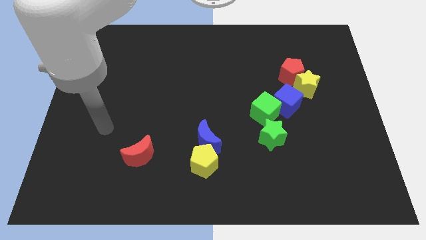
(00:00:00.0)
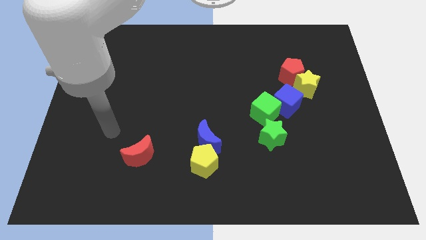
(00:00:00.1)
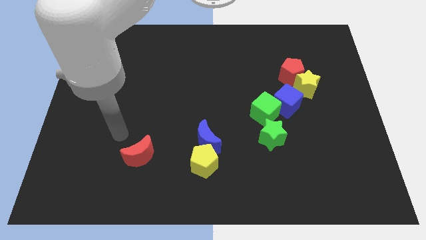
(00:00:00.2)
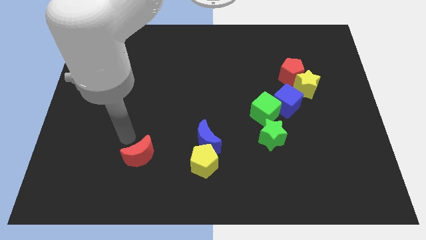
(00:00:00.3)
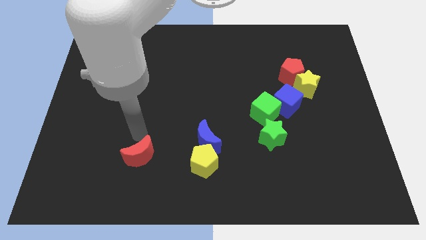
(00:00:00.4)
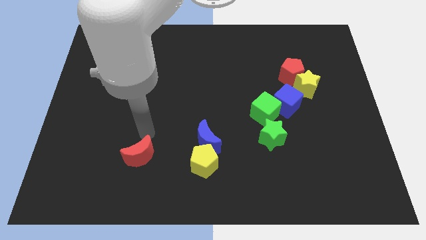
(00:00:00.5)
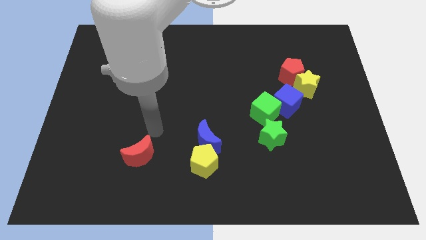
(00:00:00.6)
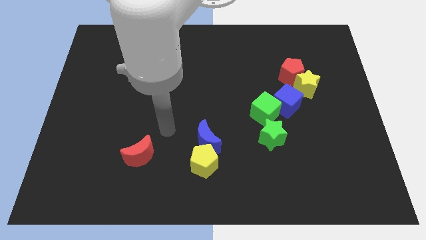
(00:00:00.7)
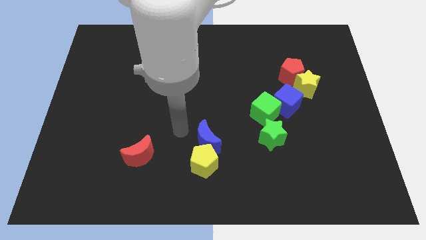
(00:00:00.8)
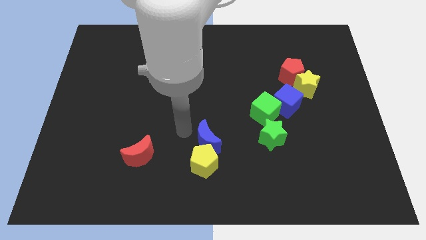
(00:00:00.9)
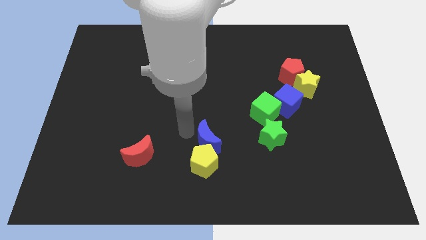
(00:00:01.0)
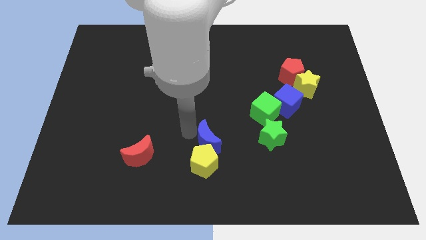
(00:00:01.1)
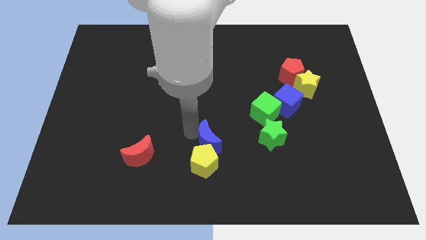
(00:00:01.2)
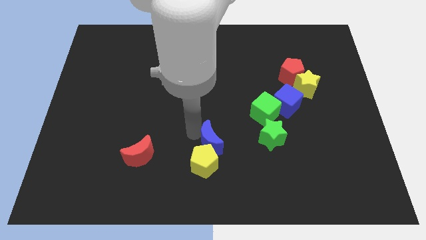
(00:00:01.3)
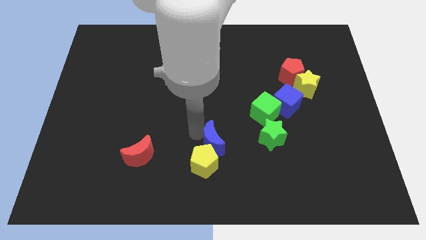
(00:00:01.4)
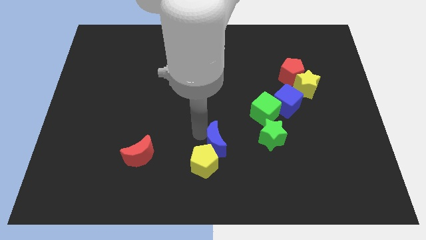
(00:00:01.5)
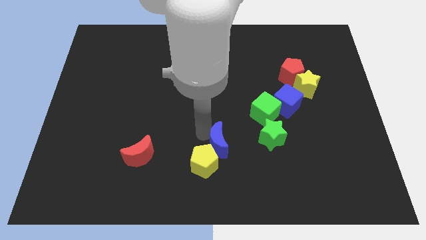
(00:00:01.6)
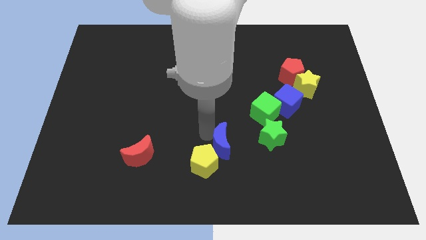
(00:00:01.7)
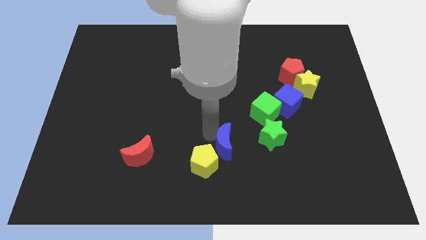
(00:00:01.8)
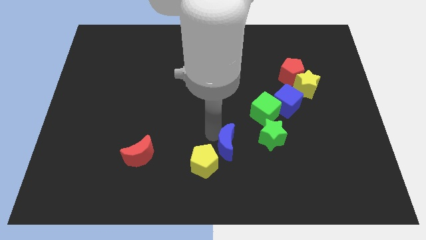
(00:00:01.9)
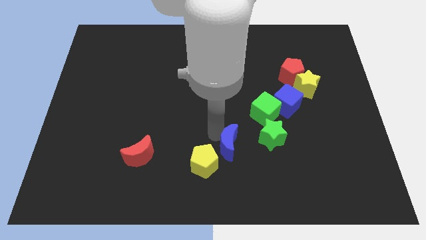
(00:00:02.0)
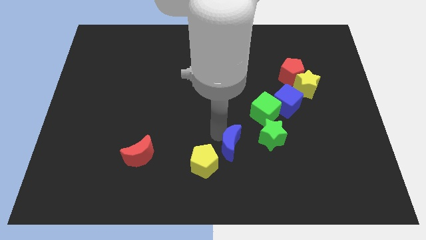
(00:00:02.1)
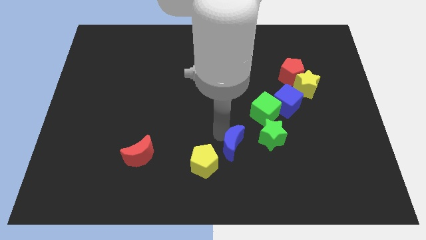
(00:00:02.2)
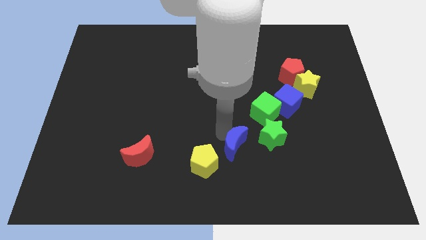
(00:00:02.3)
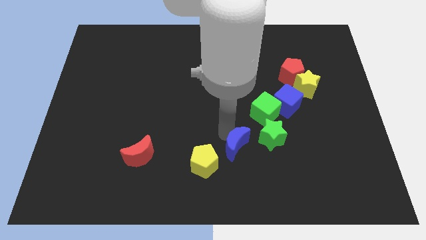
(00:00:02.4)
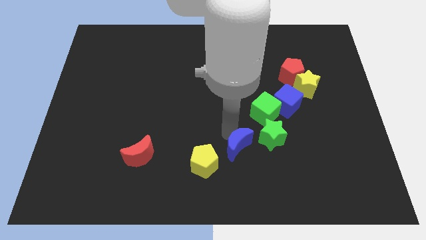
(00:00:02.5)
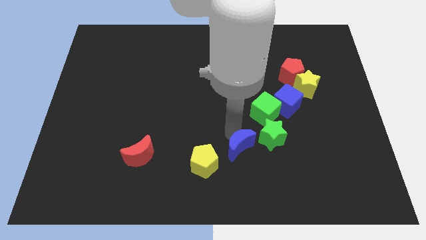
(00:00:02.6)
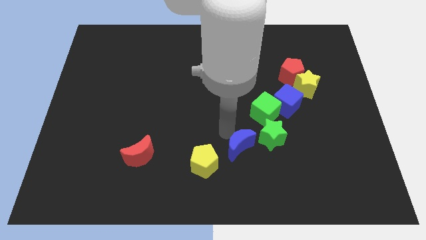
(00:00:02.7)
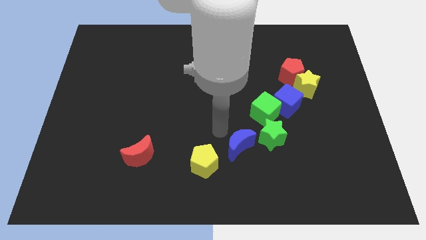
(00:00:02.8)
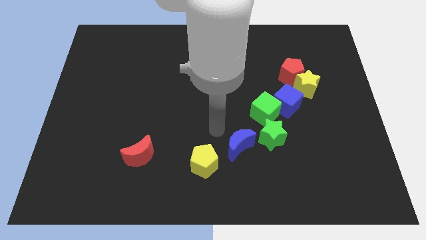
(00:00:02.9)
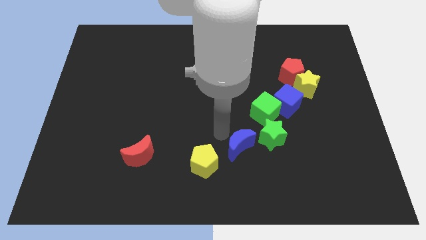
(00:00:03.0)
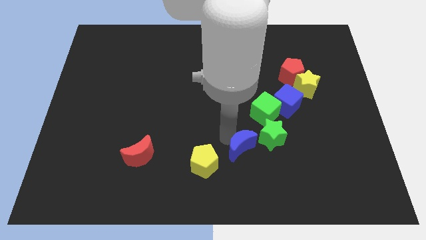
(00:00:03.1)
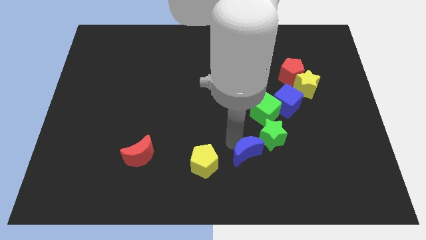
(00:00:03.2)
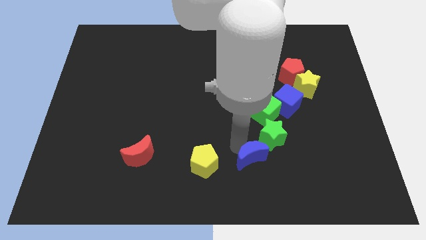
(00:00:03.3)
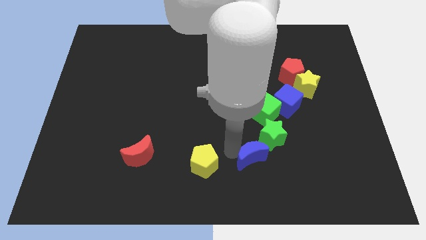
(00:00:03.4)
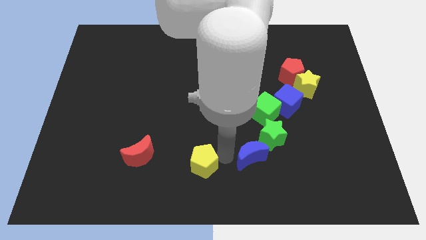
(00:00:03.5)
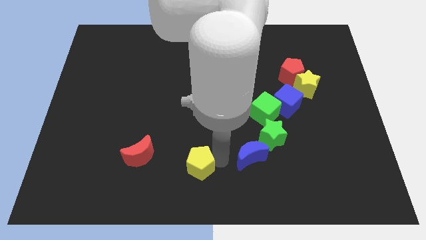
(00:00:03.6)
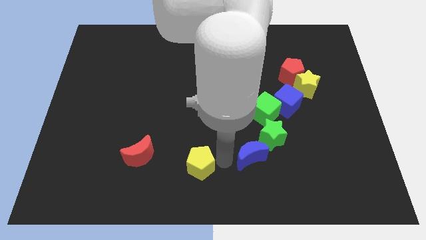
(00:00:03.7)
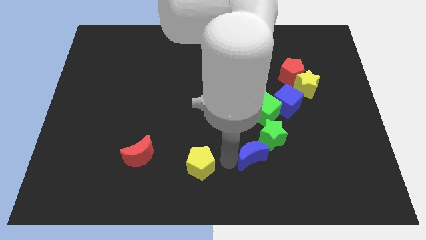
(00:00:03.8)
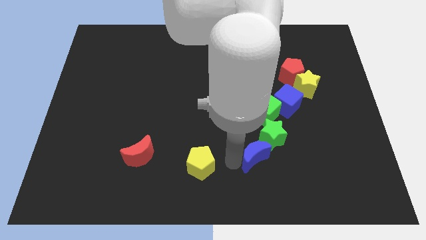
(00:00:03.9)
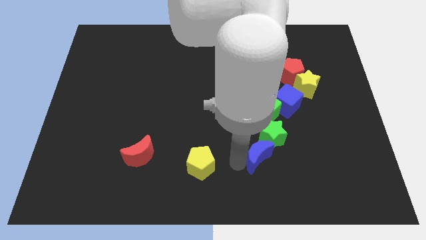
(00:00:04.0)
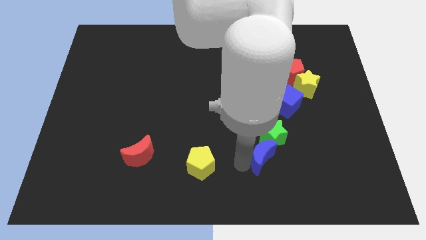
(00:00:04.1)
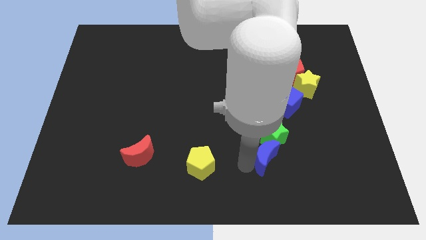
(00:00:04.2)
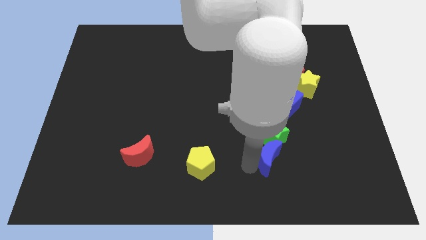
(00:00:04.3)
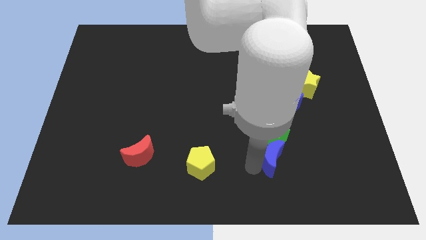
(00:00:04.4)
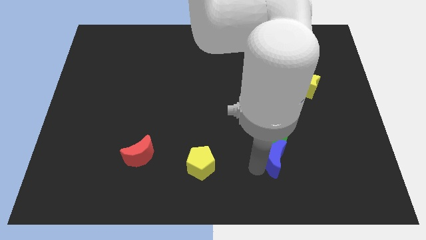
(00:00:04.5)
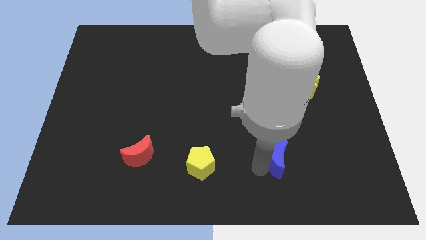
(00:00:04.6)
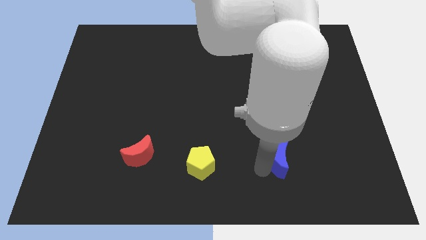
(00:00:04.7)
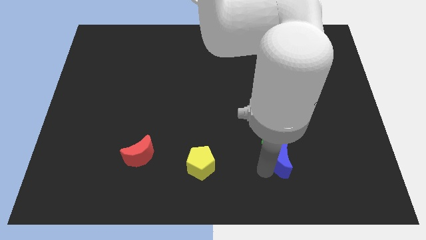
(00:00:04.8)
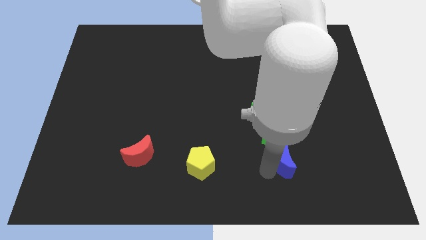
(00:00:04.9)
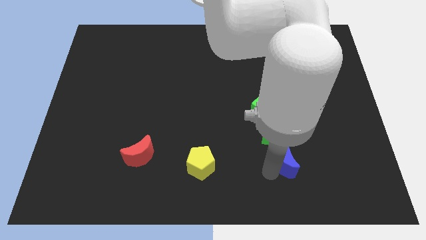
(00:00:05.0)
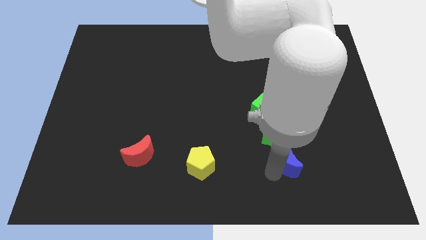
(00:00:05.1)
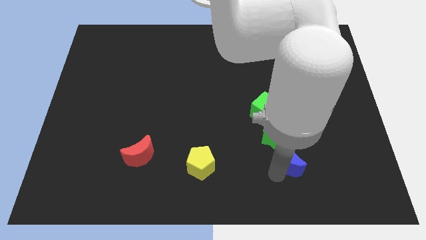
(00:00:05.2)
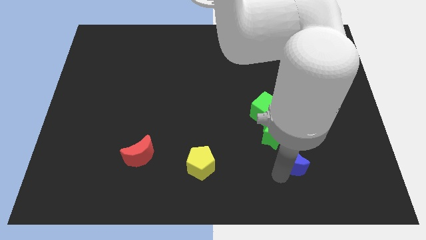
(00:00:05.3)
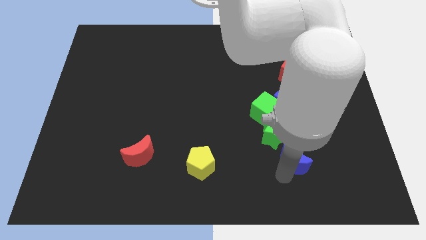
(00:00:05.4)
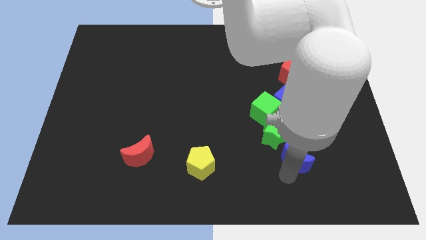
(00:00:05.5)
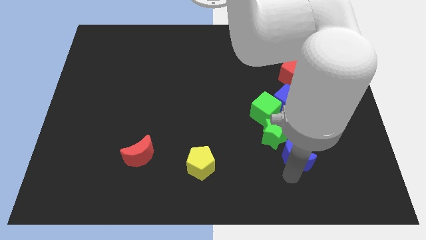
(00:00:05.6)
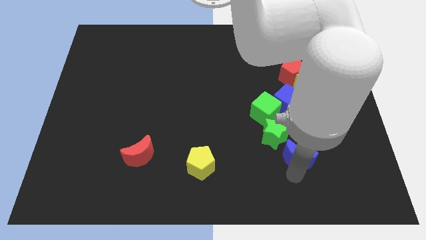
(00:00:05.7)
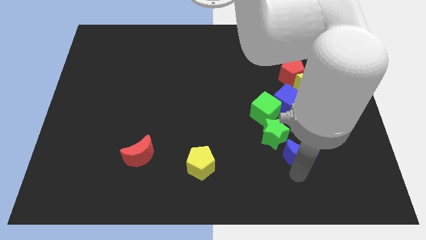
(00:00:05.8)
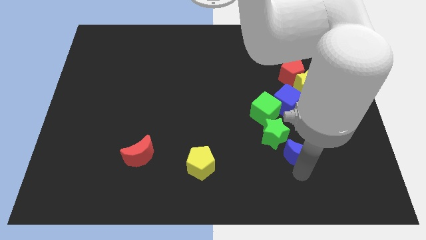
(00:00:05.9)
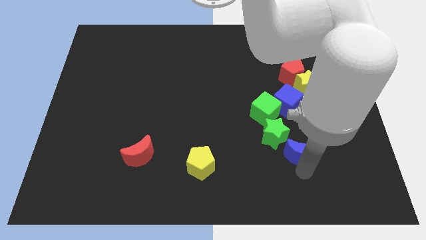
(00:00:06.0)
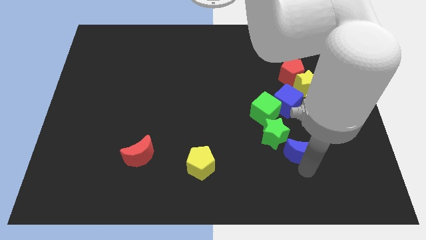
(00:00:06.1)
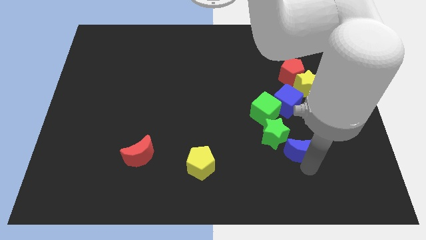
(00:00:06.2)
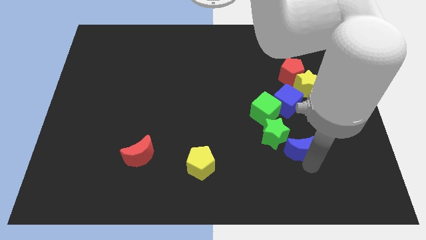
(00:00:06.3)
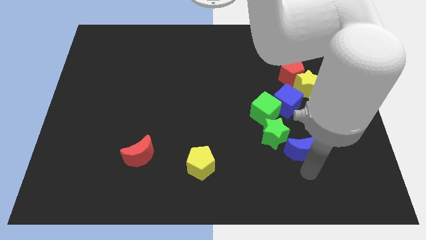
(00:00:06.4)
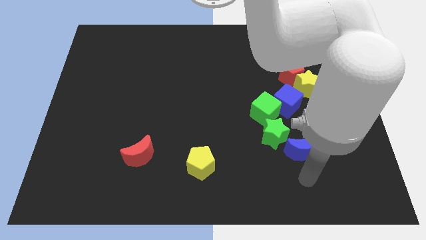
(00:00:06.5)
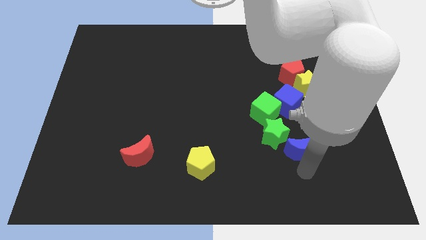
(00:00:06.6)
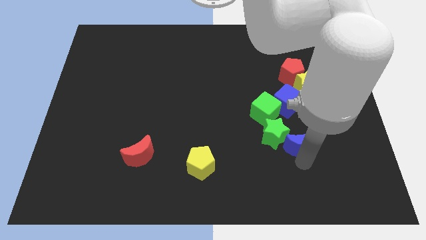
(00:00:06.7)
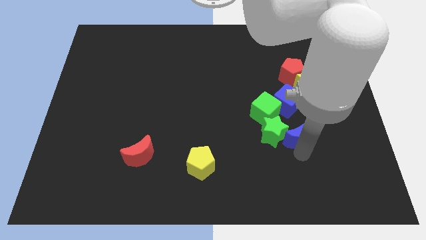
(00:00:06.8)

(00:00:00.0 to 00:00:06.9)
move the blue moon to the top right of the green star
